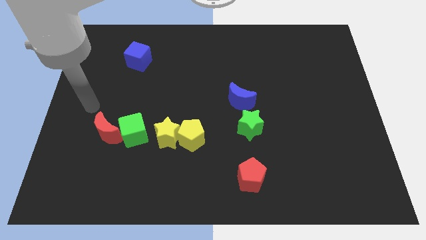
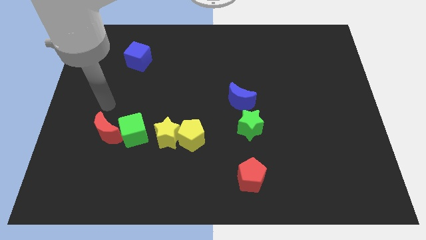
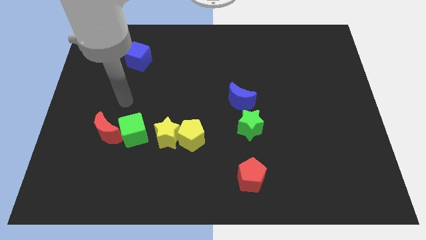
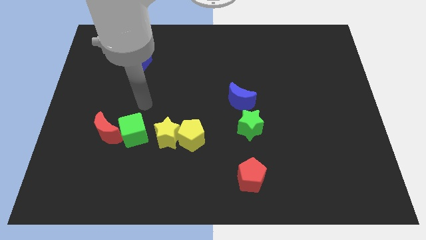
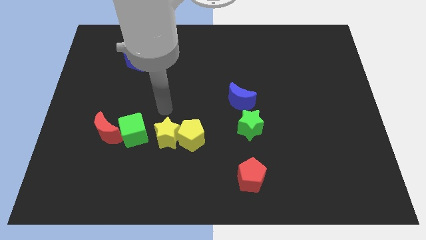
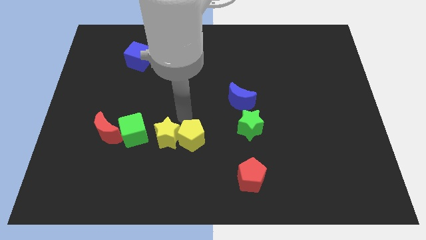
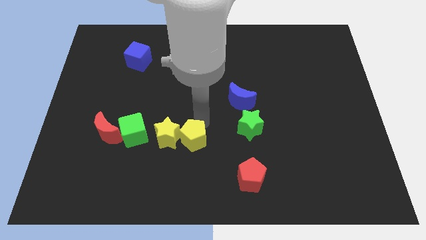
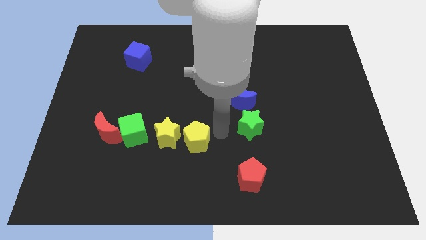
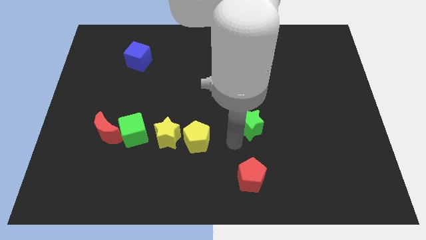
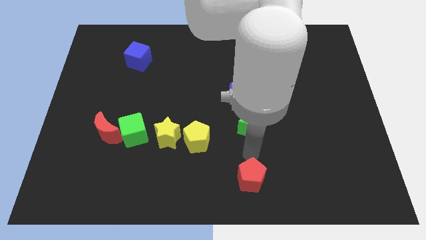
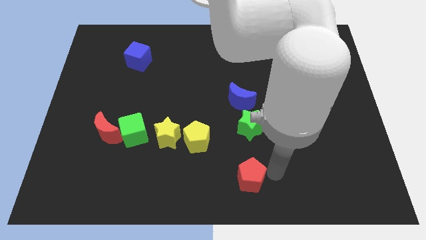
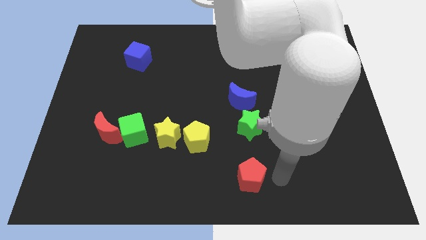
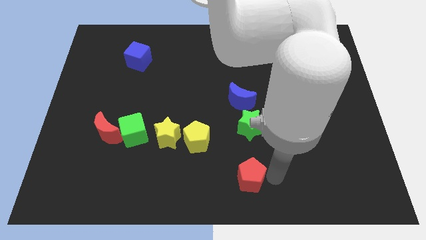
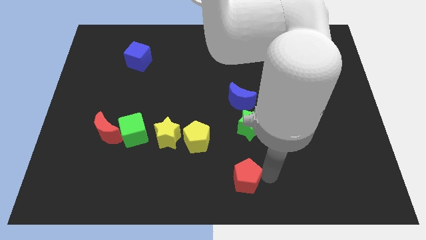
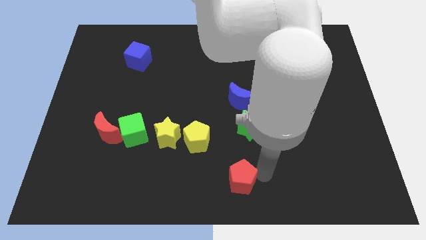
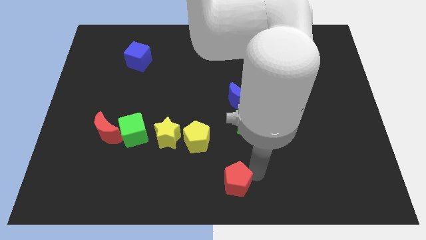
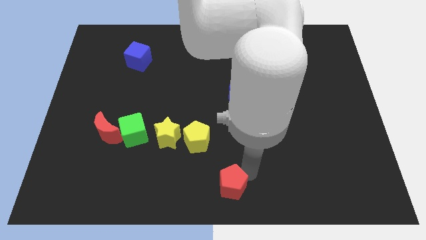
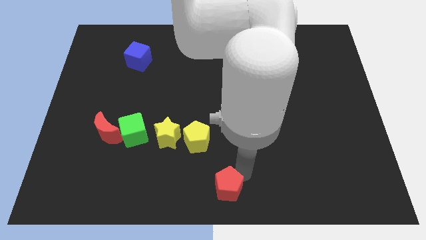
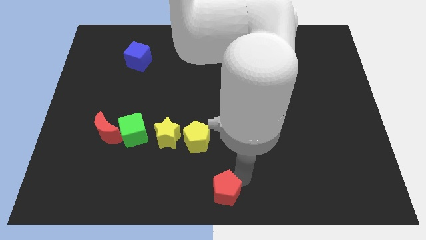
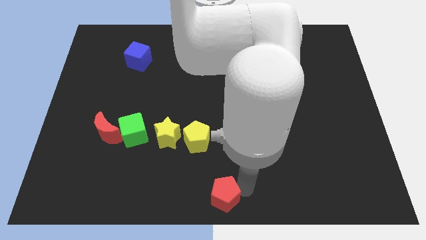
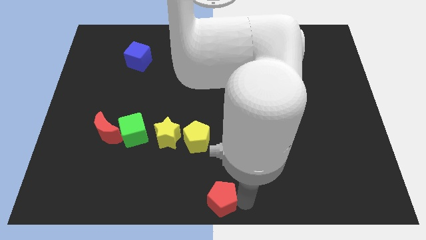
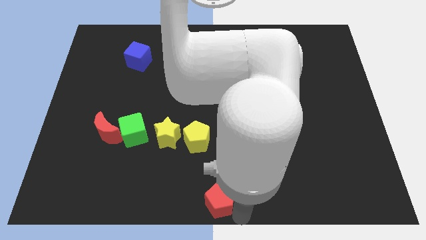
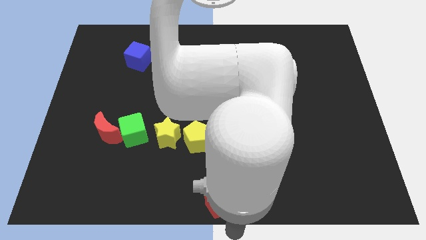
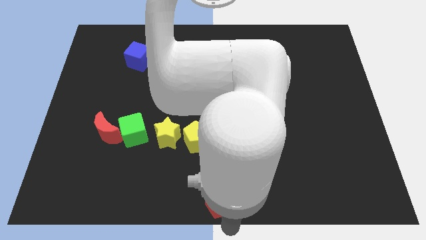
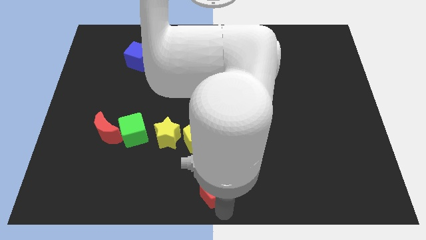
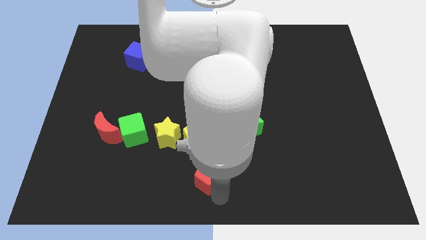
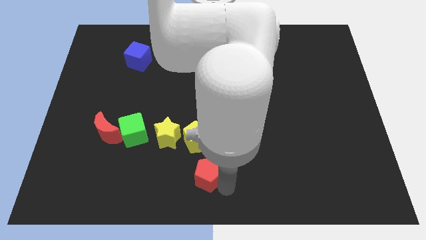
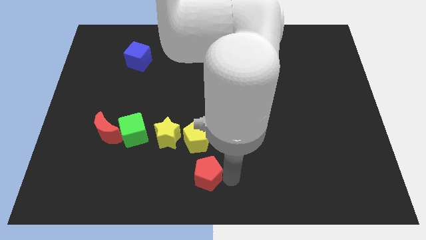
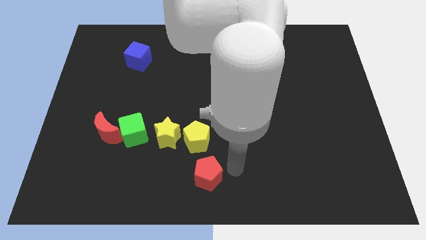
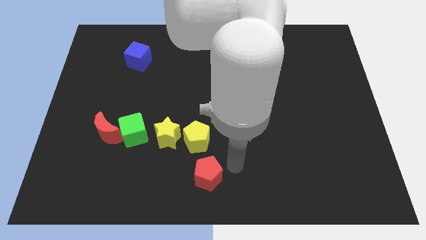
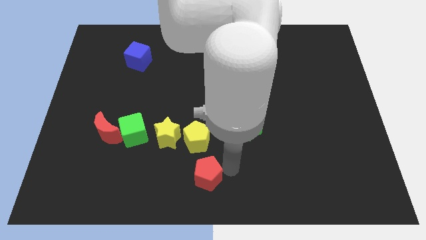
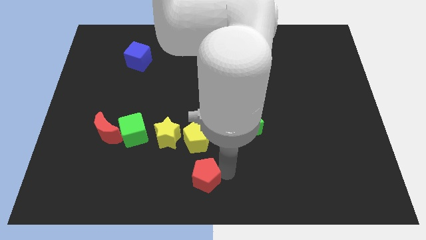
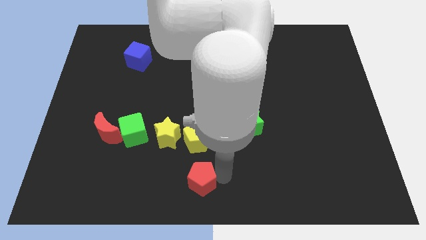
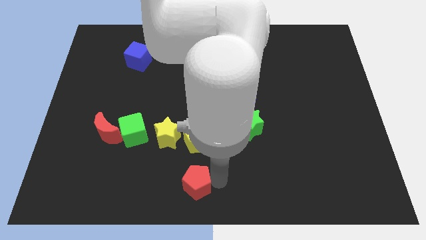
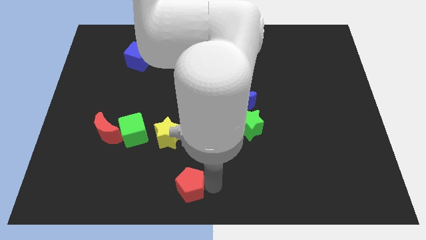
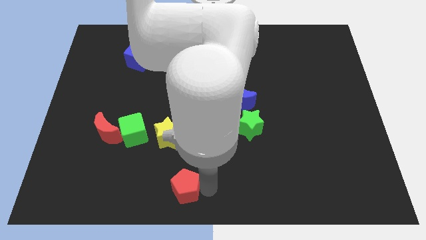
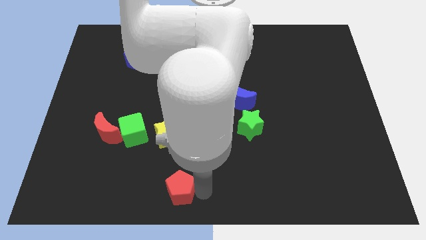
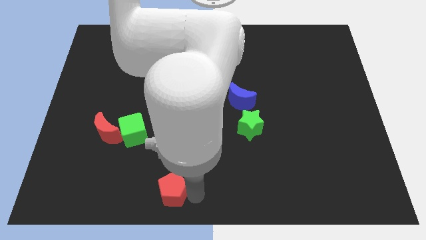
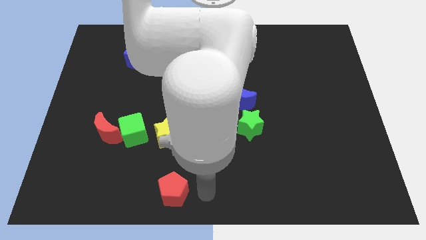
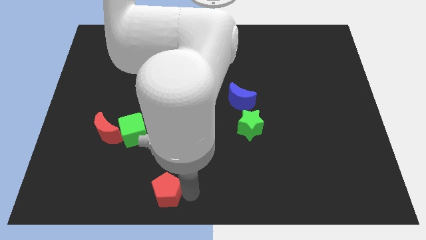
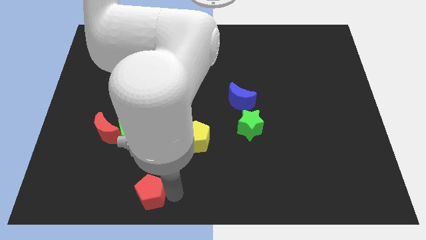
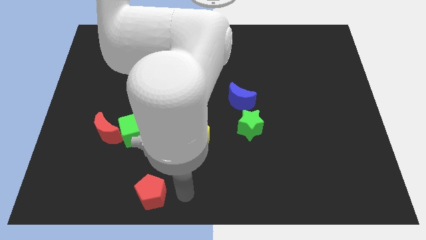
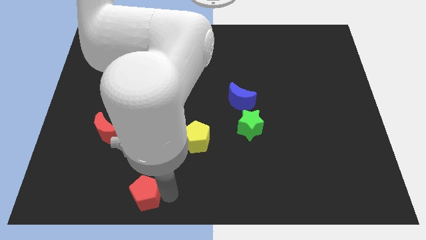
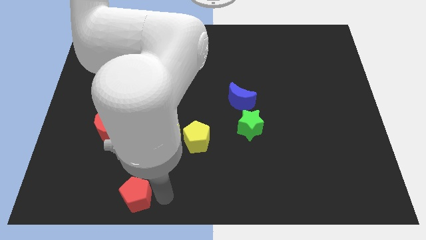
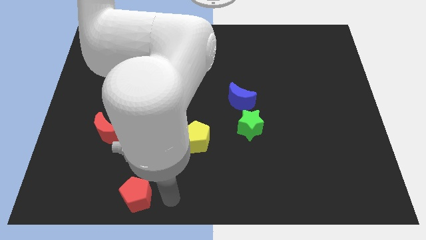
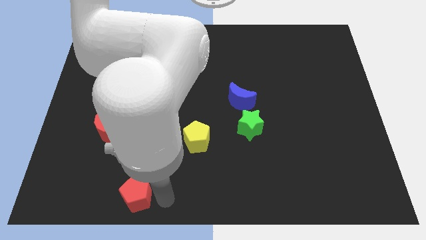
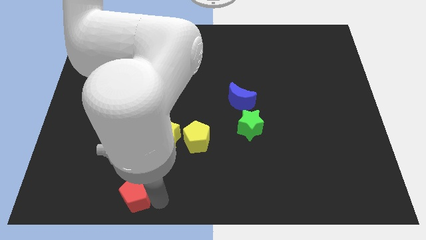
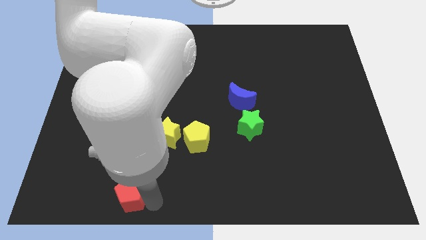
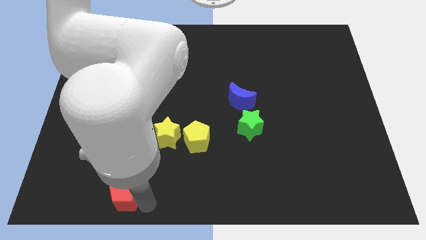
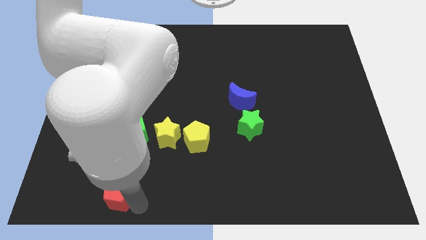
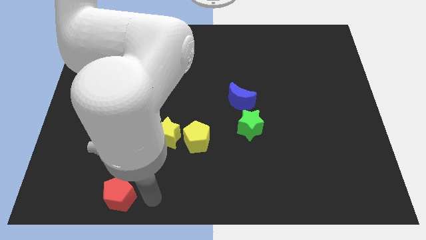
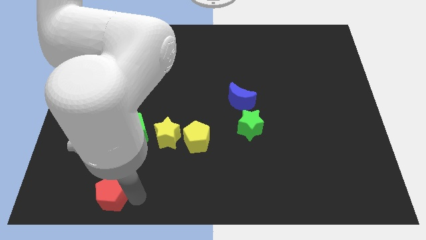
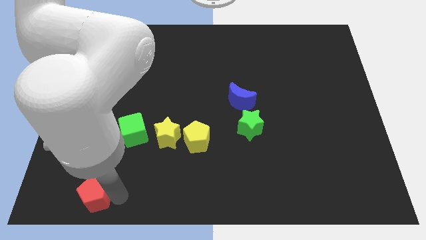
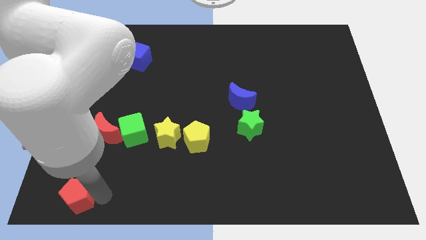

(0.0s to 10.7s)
put the red pentagon to the bottom left corner
